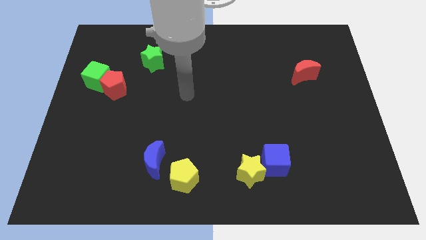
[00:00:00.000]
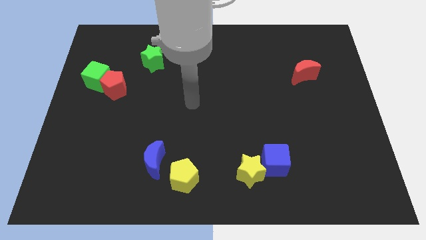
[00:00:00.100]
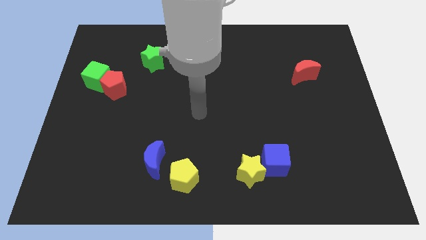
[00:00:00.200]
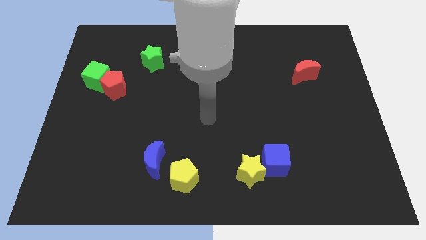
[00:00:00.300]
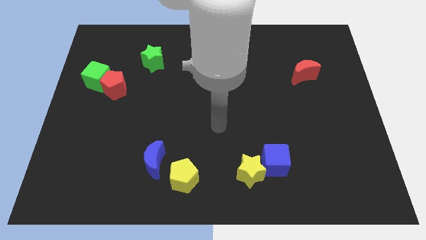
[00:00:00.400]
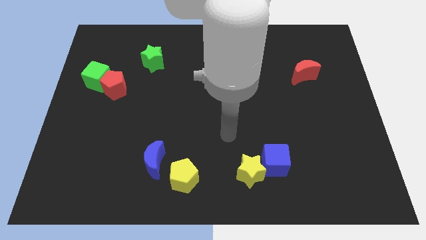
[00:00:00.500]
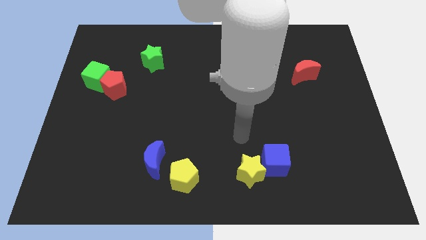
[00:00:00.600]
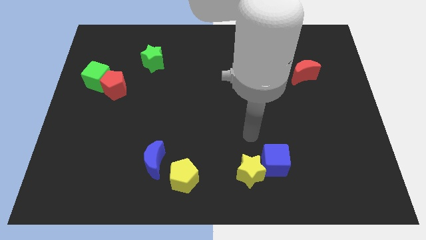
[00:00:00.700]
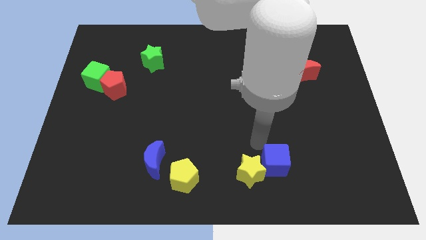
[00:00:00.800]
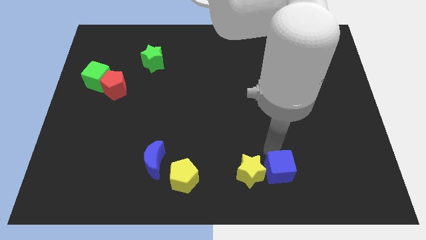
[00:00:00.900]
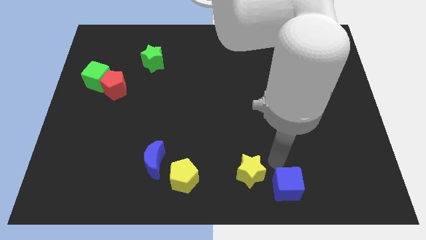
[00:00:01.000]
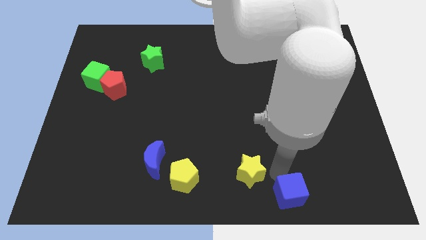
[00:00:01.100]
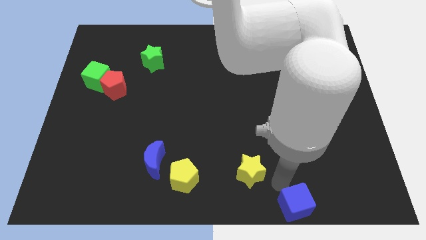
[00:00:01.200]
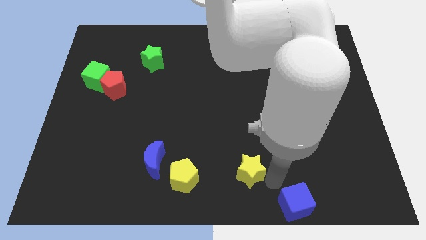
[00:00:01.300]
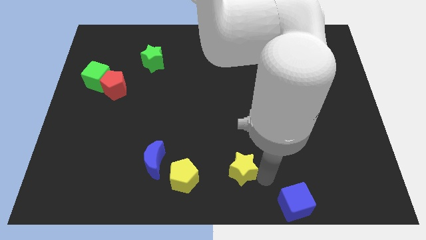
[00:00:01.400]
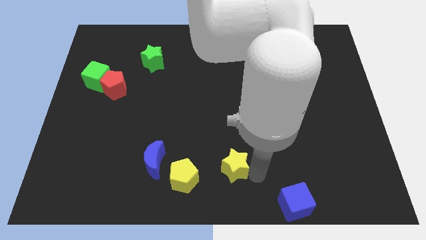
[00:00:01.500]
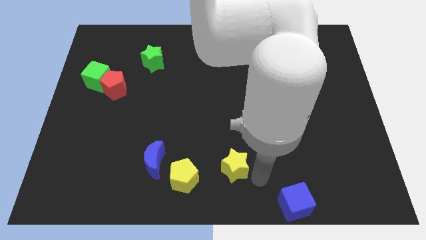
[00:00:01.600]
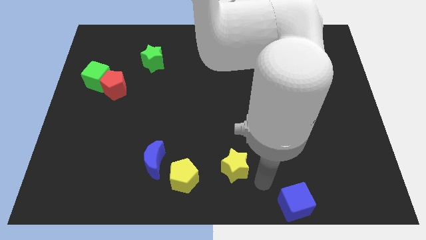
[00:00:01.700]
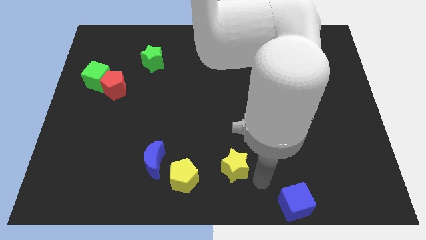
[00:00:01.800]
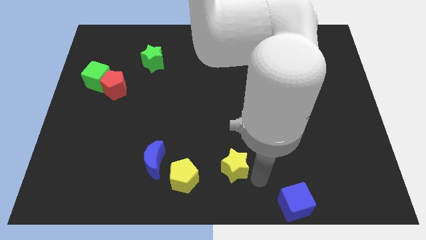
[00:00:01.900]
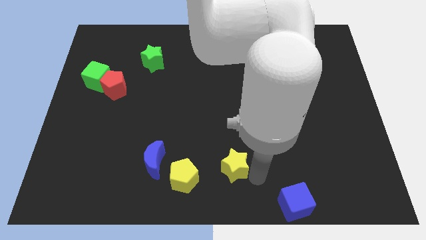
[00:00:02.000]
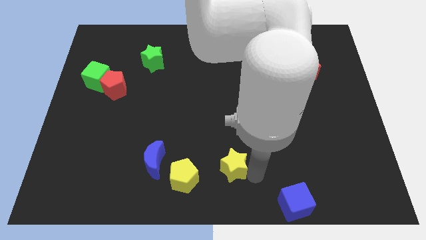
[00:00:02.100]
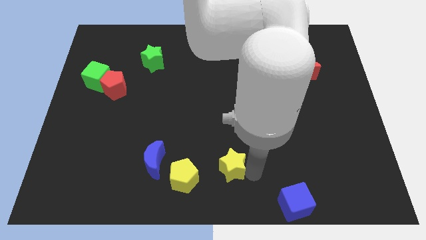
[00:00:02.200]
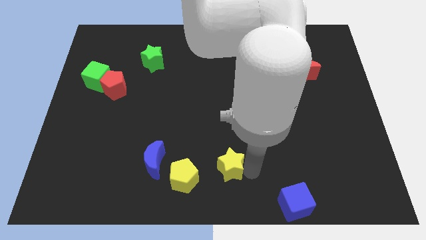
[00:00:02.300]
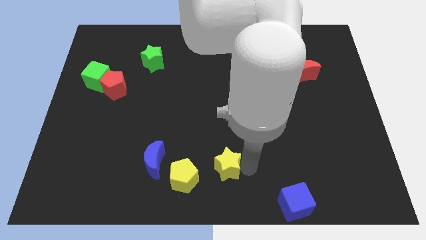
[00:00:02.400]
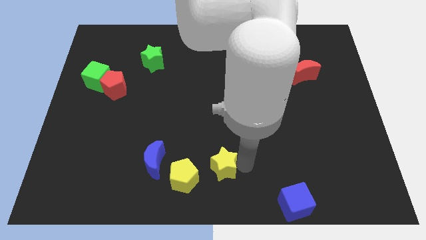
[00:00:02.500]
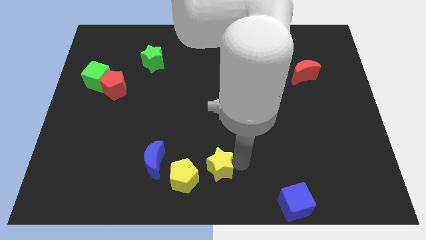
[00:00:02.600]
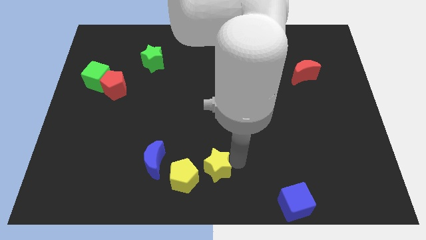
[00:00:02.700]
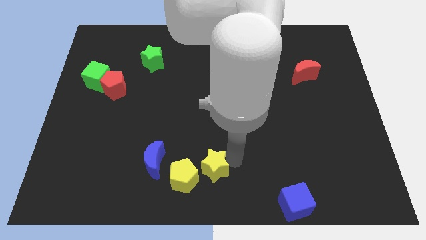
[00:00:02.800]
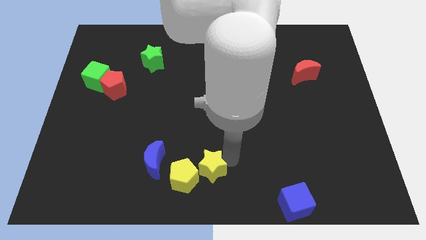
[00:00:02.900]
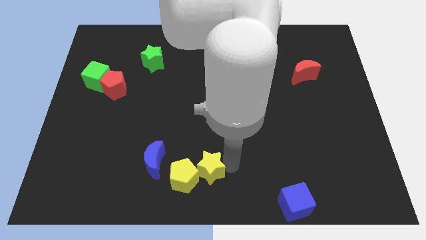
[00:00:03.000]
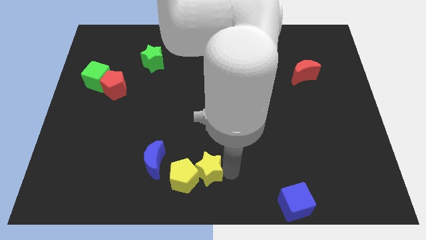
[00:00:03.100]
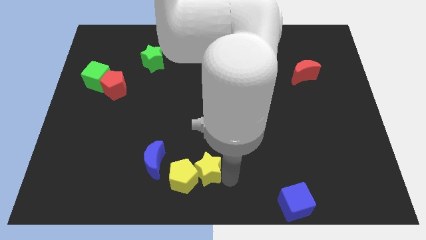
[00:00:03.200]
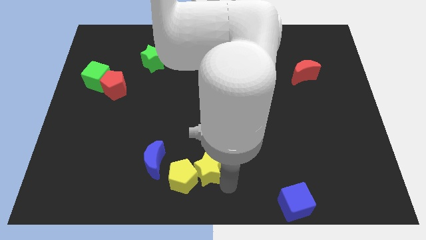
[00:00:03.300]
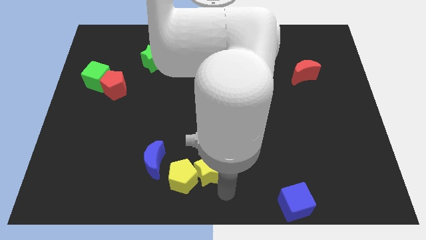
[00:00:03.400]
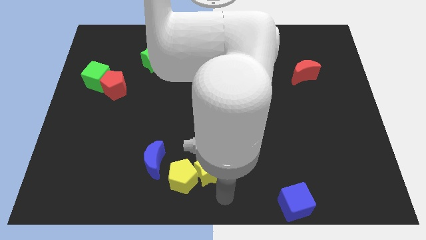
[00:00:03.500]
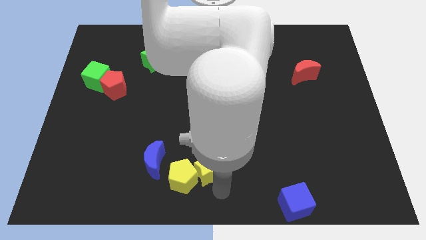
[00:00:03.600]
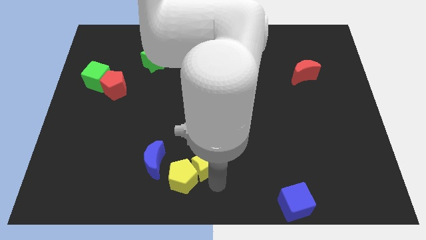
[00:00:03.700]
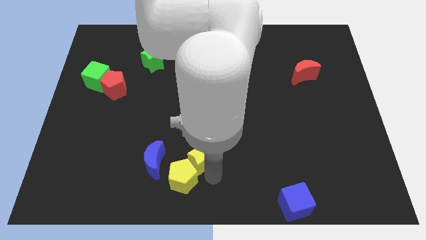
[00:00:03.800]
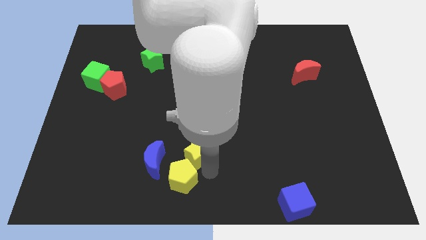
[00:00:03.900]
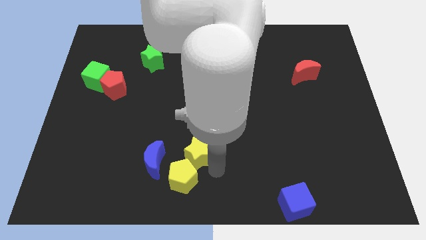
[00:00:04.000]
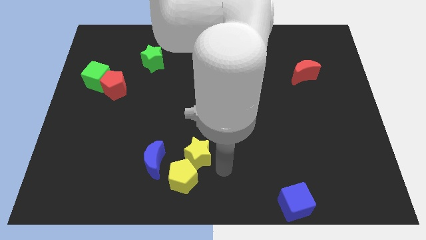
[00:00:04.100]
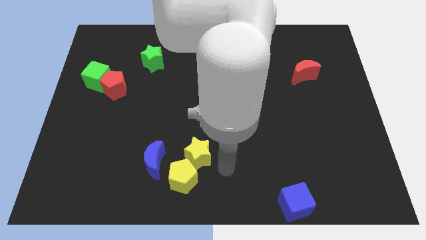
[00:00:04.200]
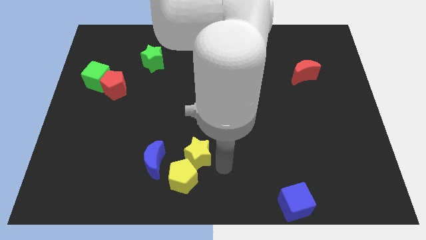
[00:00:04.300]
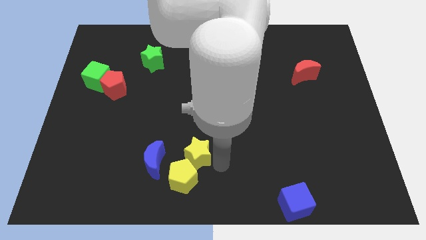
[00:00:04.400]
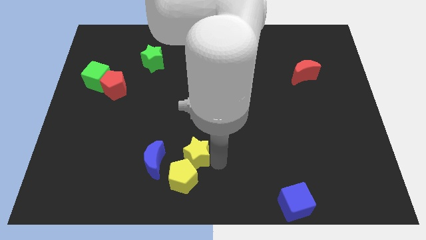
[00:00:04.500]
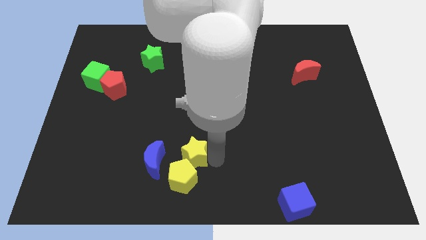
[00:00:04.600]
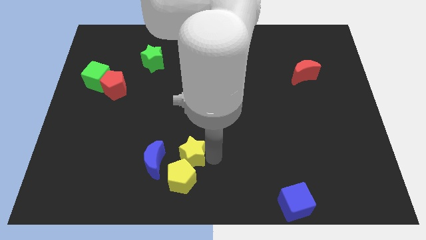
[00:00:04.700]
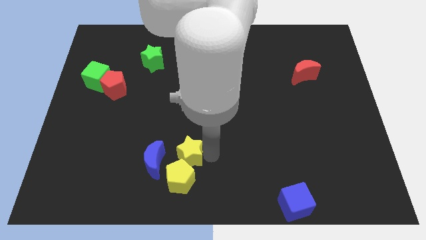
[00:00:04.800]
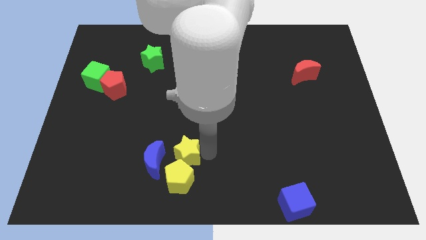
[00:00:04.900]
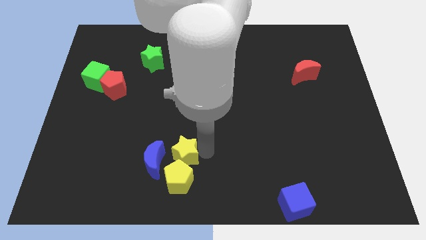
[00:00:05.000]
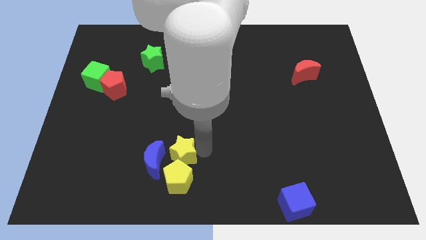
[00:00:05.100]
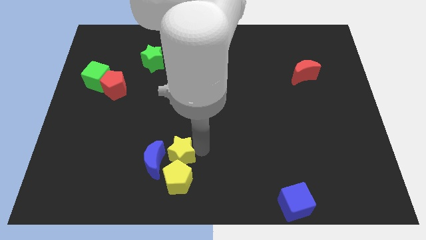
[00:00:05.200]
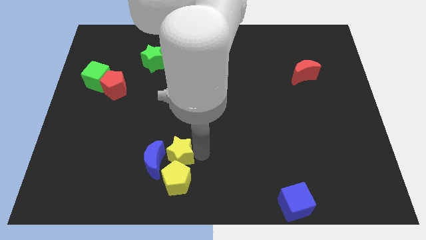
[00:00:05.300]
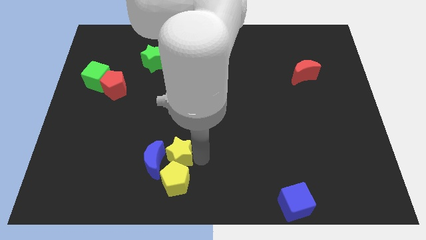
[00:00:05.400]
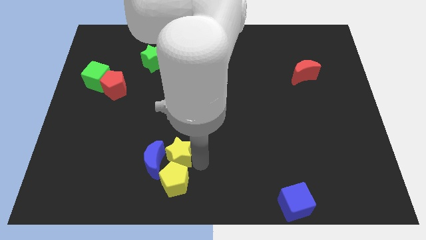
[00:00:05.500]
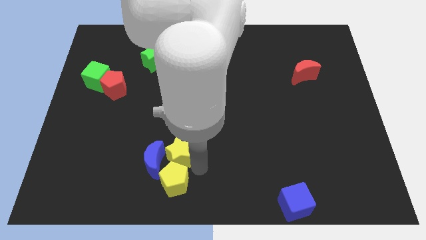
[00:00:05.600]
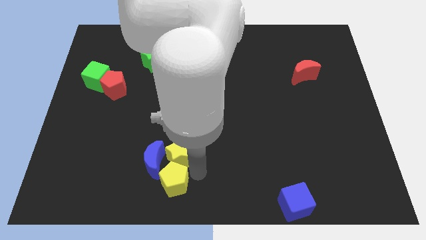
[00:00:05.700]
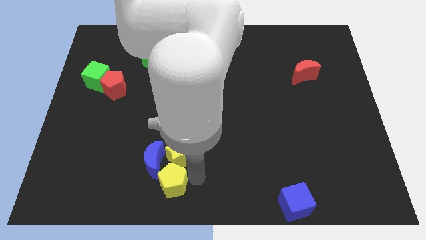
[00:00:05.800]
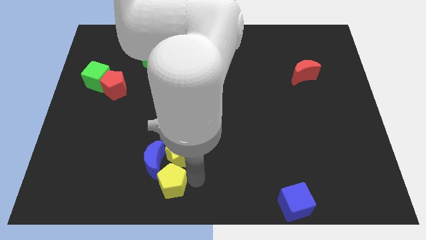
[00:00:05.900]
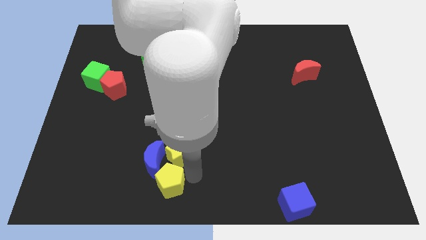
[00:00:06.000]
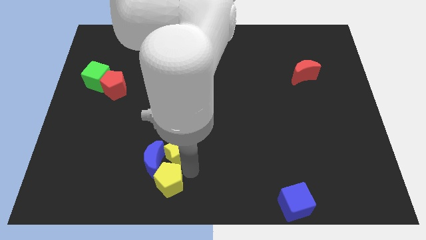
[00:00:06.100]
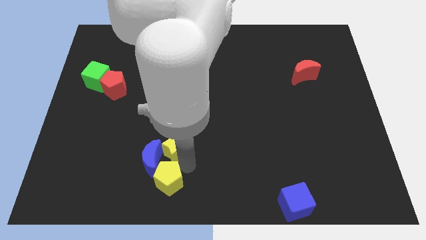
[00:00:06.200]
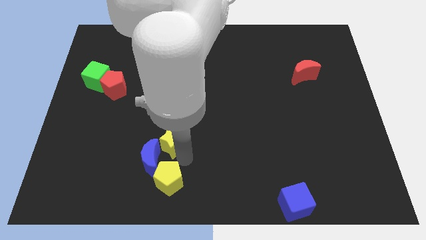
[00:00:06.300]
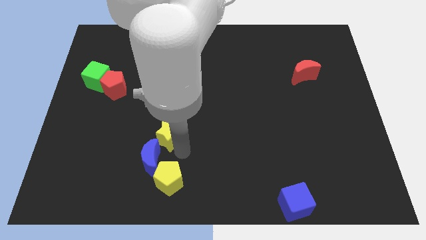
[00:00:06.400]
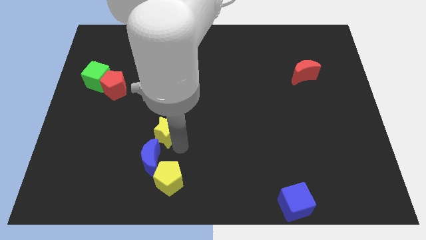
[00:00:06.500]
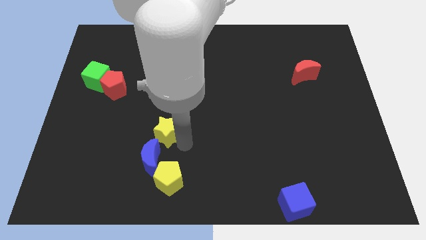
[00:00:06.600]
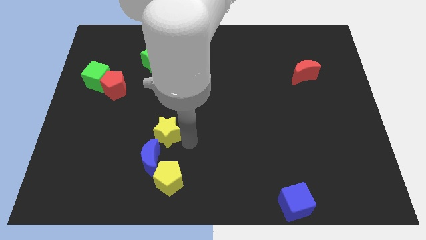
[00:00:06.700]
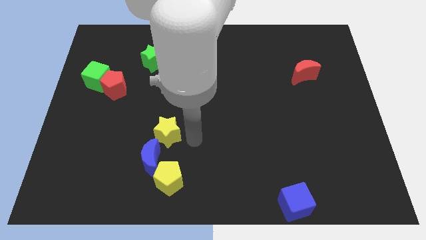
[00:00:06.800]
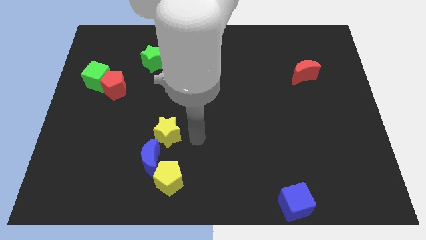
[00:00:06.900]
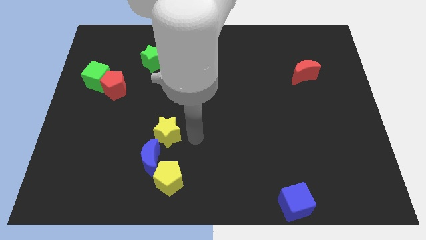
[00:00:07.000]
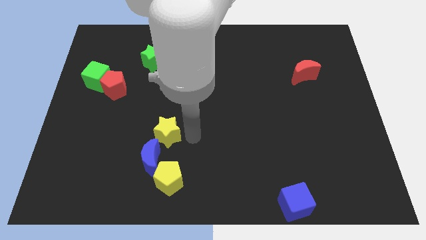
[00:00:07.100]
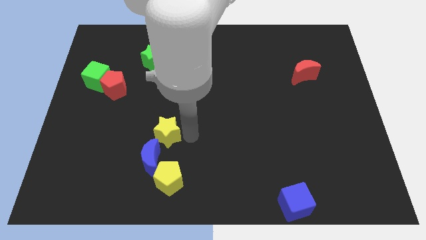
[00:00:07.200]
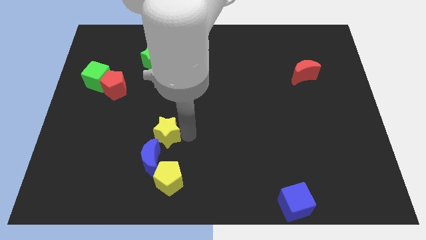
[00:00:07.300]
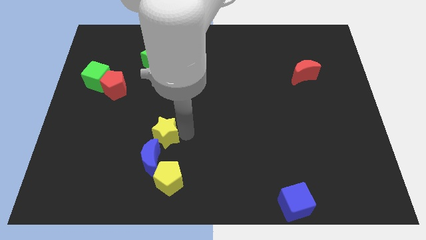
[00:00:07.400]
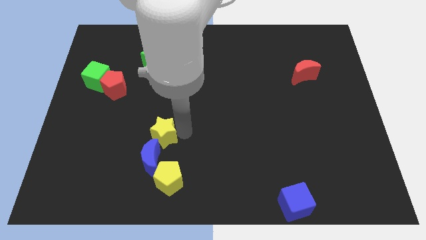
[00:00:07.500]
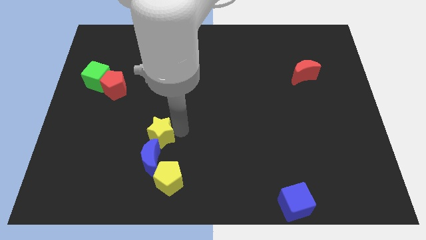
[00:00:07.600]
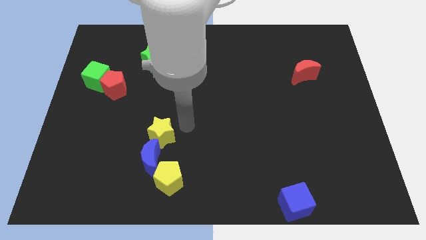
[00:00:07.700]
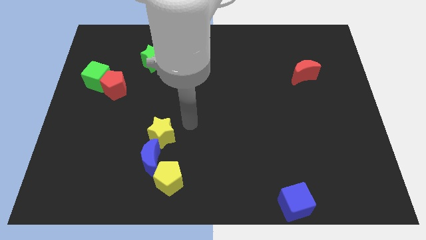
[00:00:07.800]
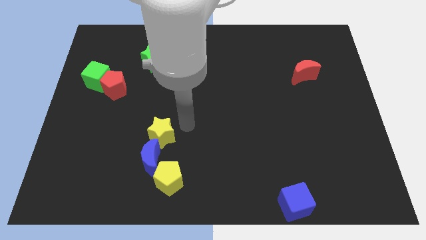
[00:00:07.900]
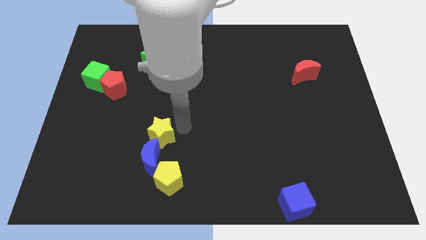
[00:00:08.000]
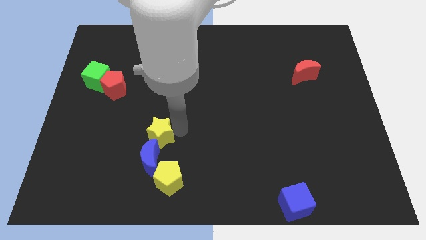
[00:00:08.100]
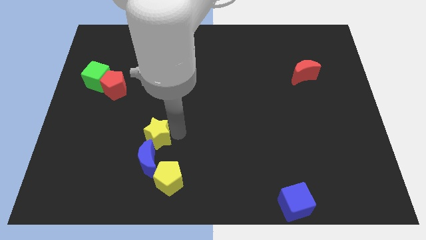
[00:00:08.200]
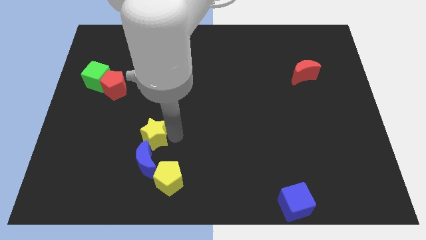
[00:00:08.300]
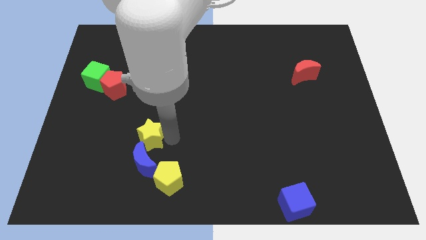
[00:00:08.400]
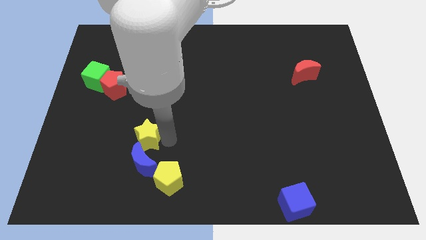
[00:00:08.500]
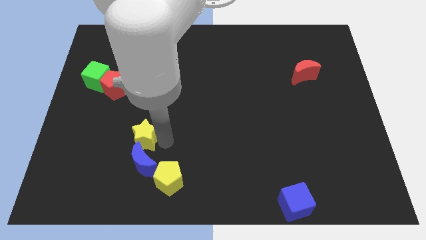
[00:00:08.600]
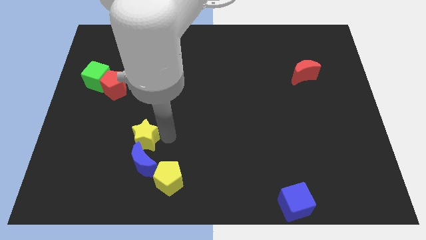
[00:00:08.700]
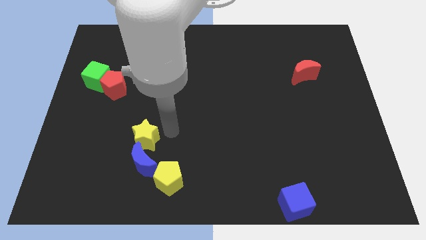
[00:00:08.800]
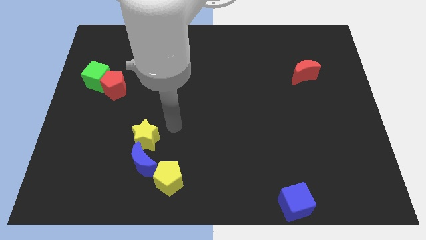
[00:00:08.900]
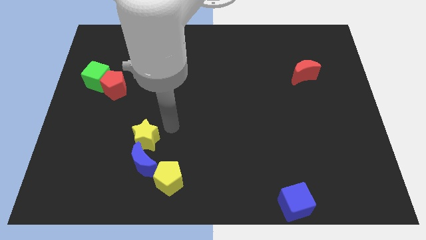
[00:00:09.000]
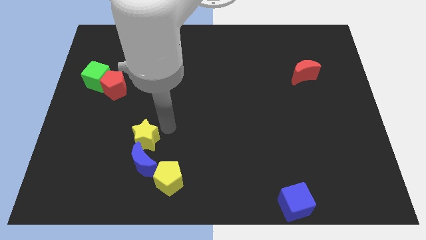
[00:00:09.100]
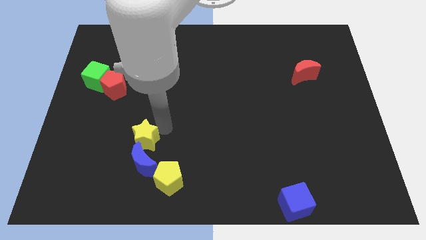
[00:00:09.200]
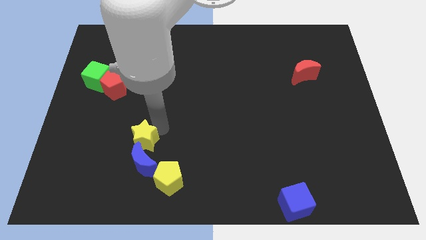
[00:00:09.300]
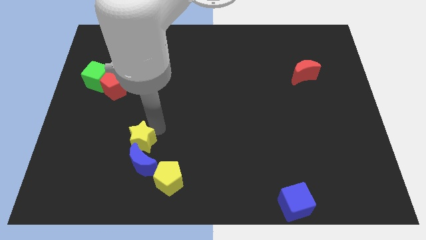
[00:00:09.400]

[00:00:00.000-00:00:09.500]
slide the yellow star to the left
